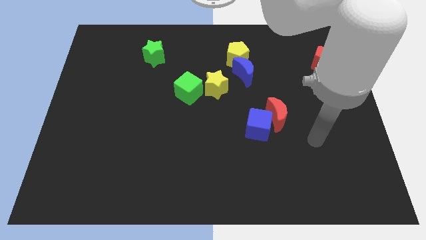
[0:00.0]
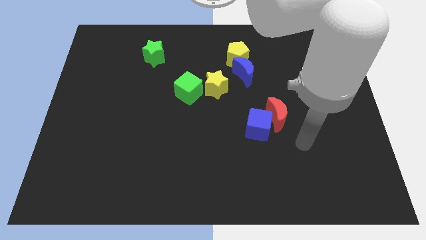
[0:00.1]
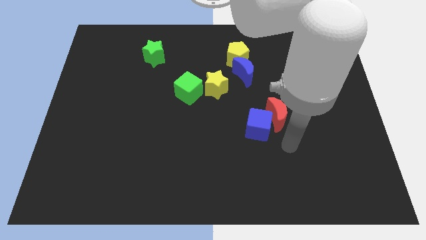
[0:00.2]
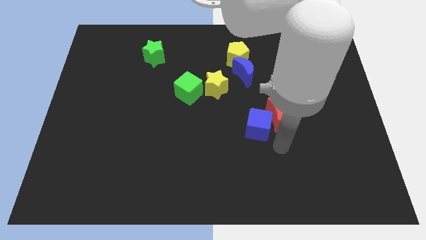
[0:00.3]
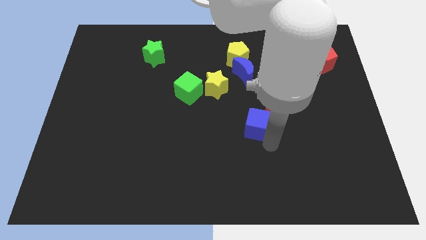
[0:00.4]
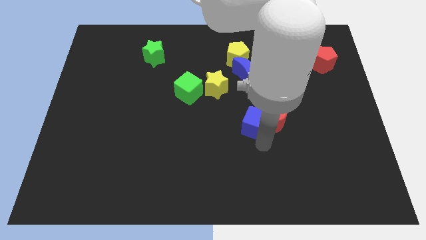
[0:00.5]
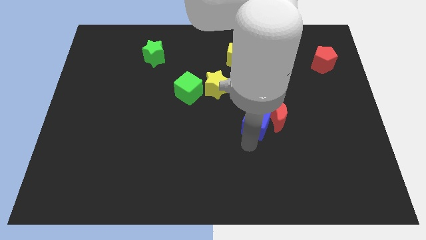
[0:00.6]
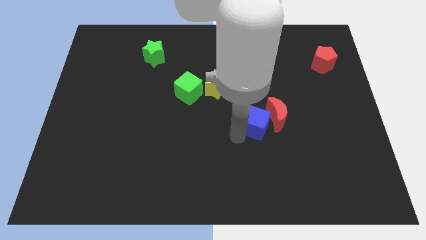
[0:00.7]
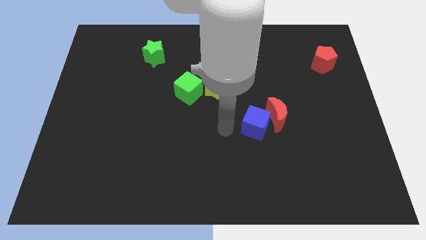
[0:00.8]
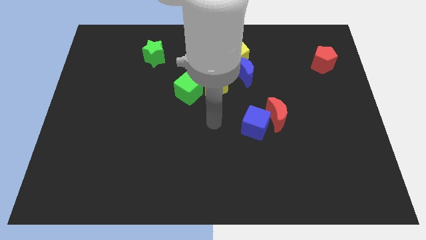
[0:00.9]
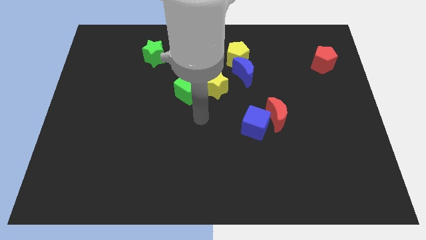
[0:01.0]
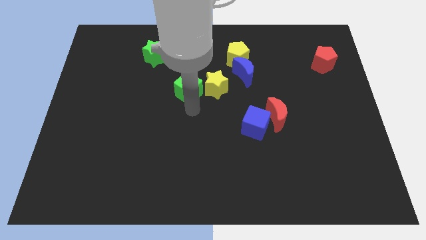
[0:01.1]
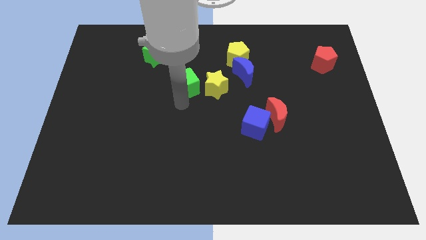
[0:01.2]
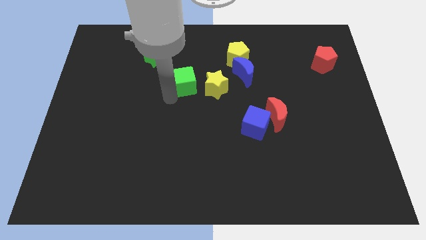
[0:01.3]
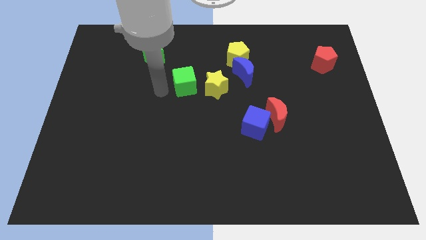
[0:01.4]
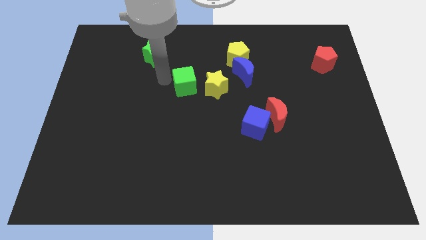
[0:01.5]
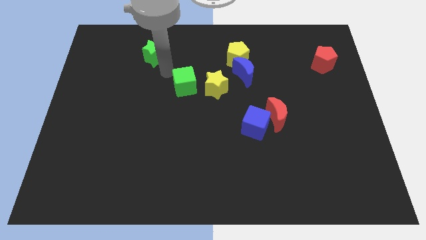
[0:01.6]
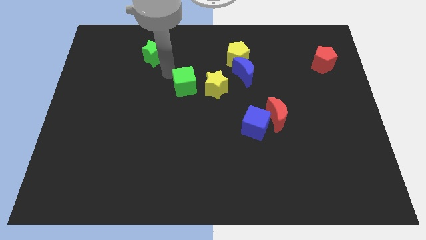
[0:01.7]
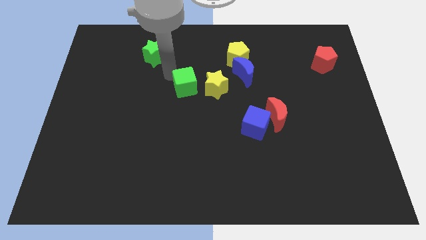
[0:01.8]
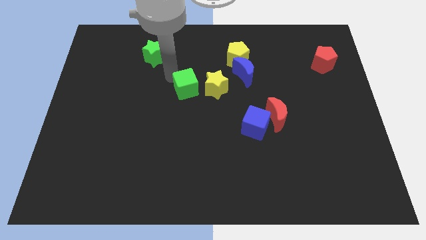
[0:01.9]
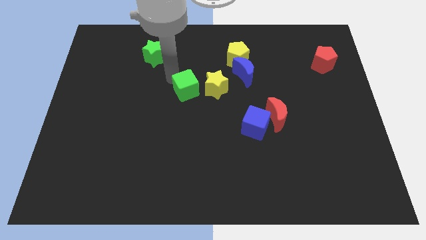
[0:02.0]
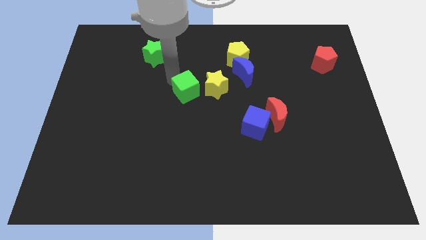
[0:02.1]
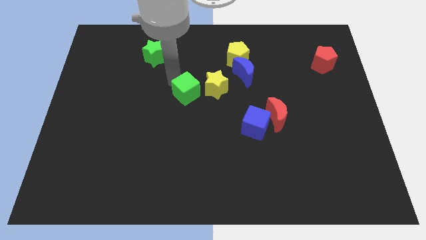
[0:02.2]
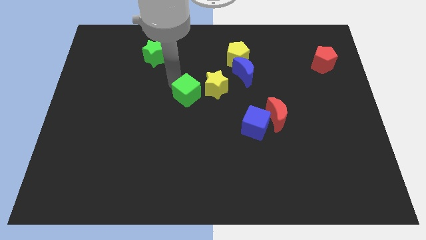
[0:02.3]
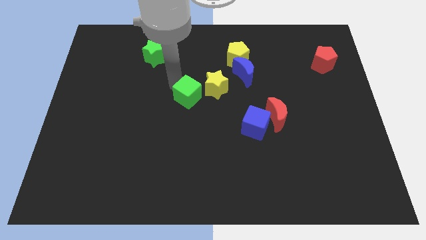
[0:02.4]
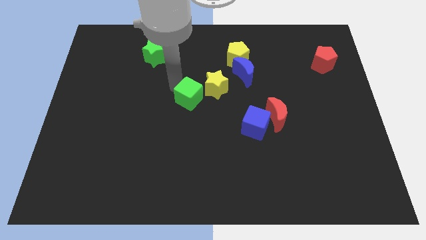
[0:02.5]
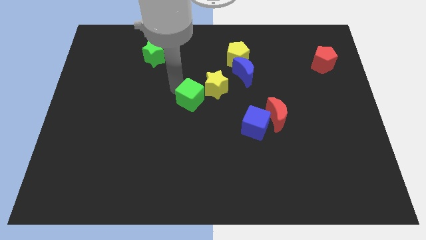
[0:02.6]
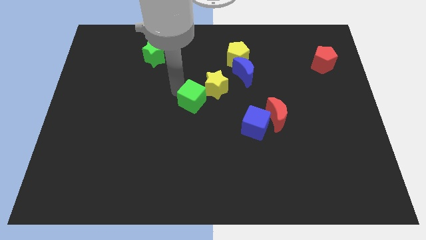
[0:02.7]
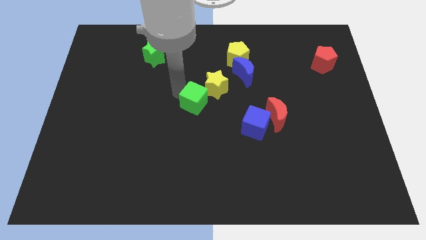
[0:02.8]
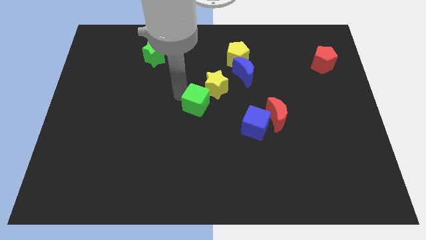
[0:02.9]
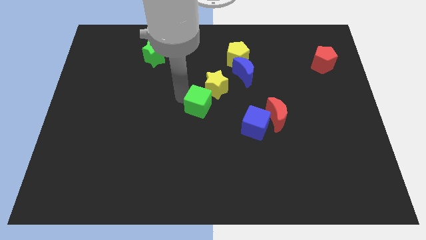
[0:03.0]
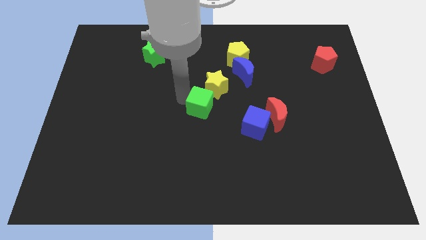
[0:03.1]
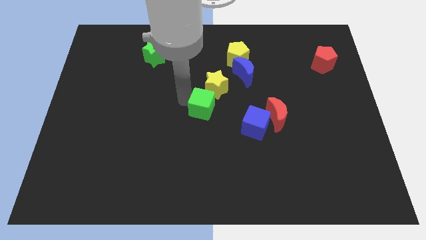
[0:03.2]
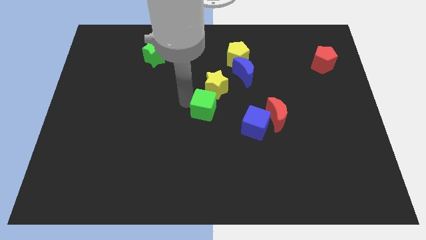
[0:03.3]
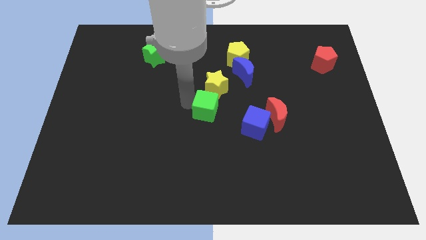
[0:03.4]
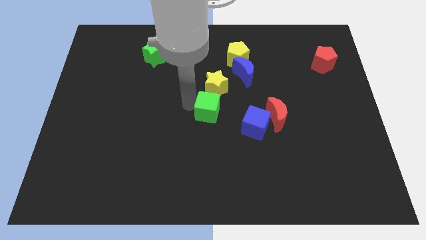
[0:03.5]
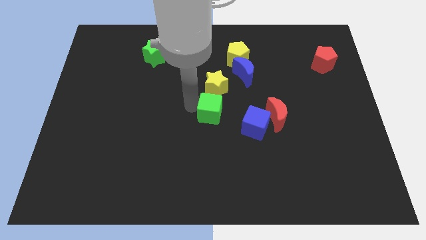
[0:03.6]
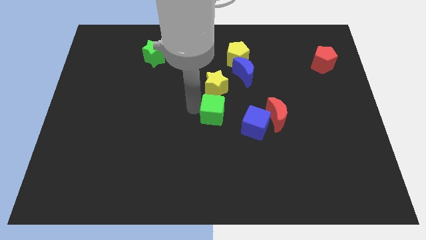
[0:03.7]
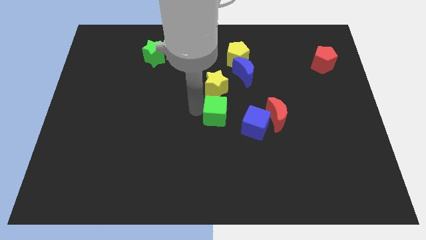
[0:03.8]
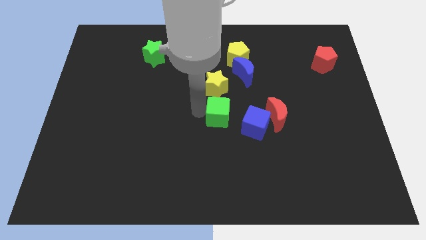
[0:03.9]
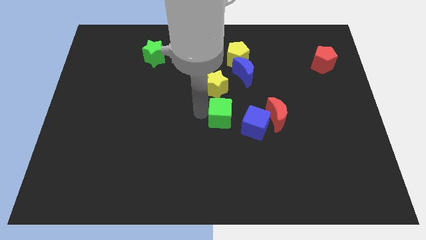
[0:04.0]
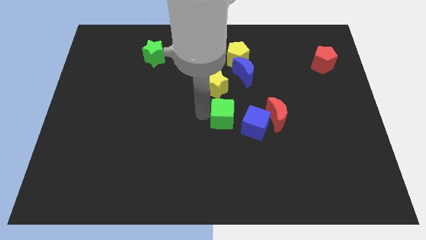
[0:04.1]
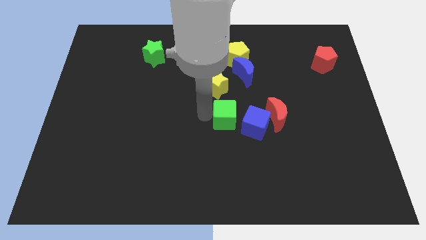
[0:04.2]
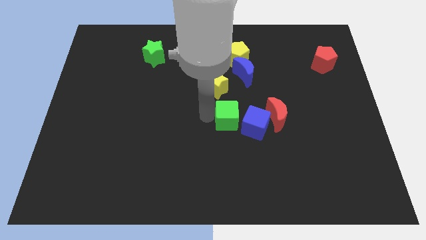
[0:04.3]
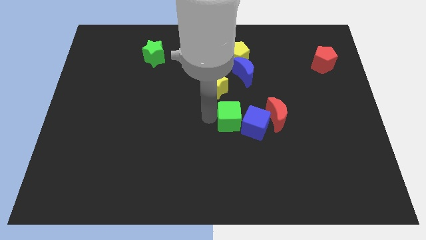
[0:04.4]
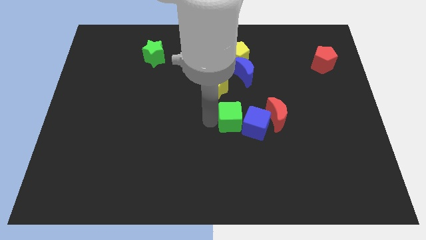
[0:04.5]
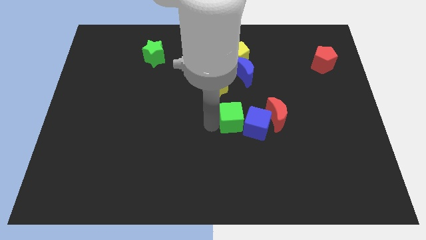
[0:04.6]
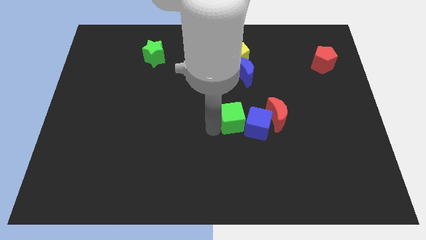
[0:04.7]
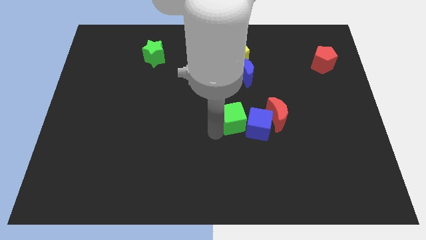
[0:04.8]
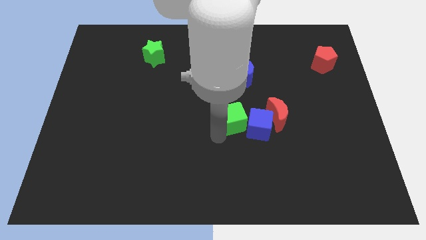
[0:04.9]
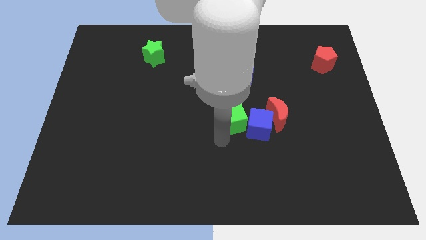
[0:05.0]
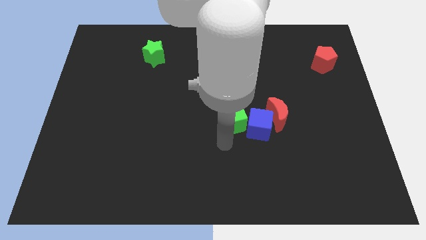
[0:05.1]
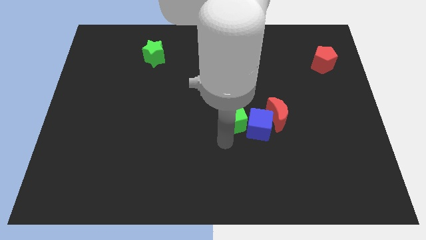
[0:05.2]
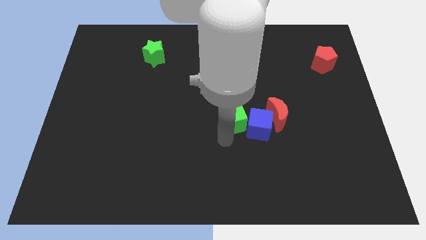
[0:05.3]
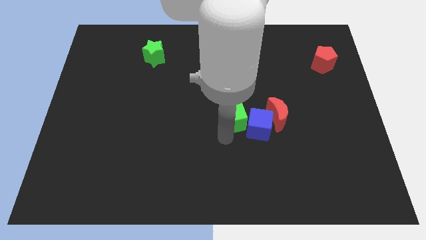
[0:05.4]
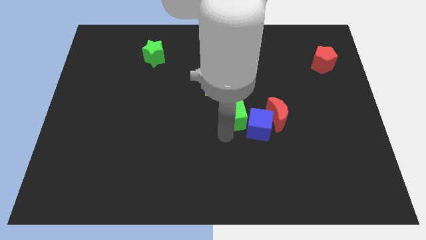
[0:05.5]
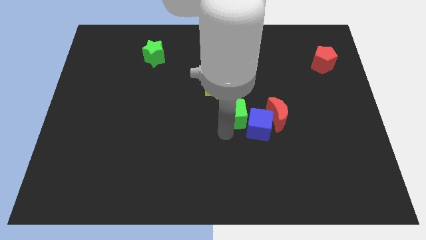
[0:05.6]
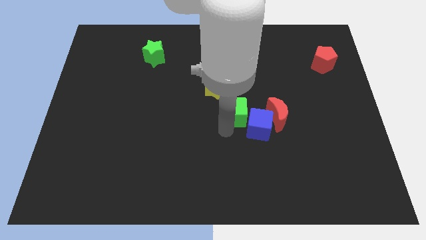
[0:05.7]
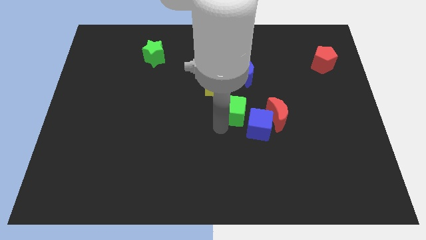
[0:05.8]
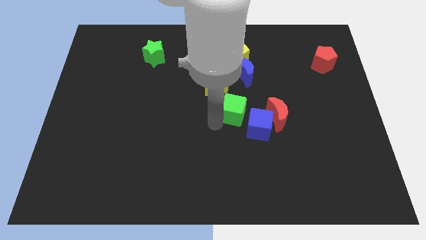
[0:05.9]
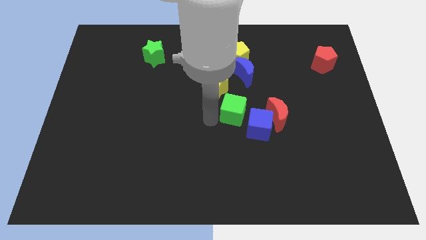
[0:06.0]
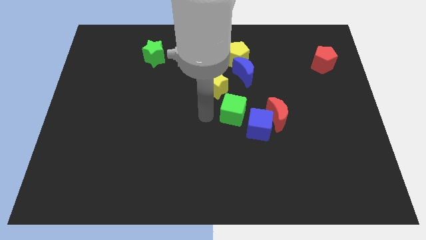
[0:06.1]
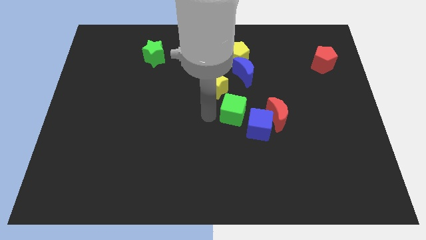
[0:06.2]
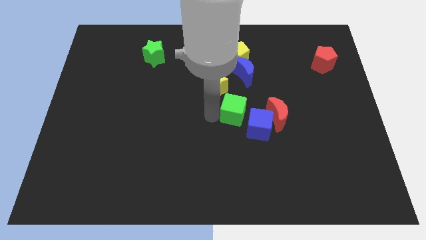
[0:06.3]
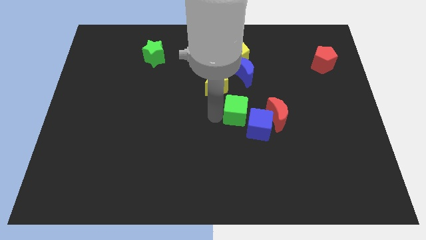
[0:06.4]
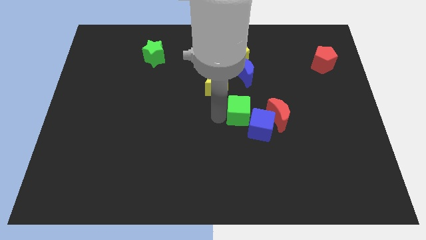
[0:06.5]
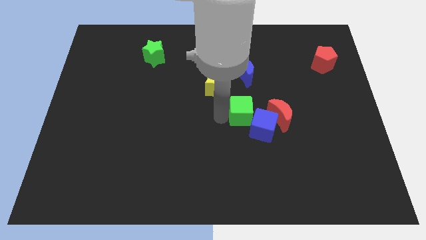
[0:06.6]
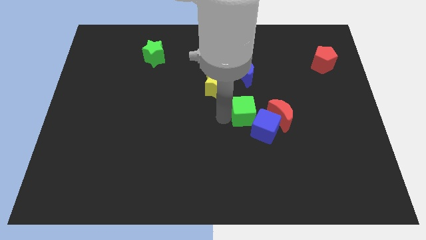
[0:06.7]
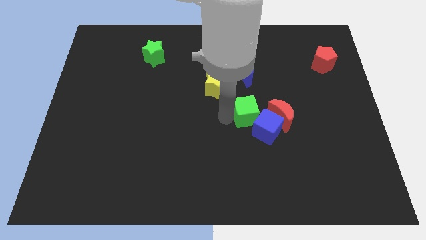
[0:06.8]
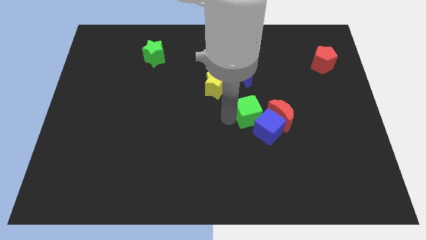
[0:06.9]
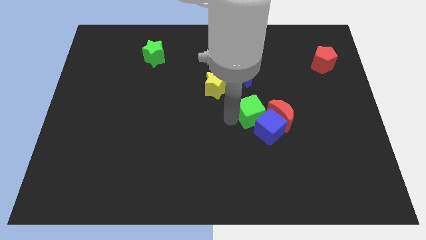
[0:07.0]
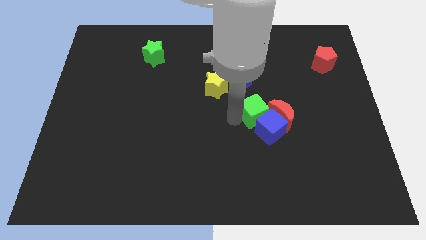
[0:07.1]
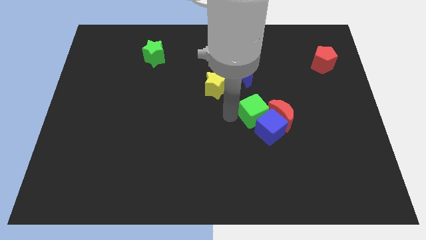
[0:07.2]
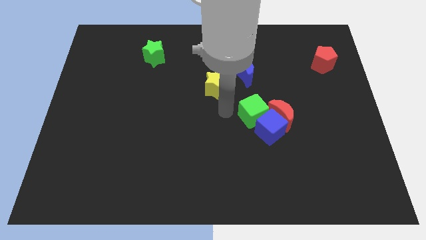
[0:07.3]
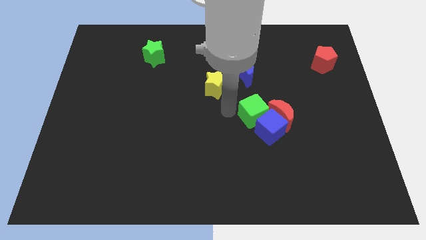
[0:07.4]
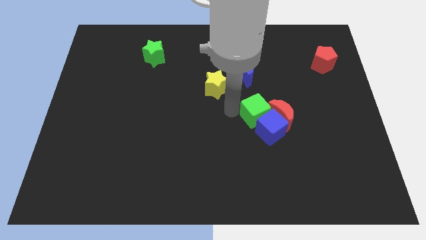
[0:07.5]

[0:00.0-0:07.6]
move the green cube next to the red moon
